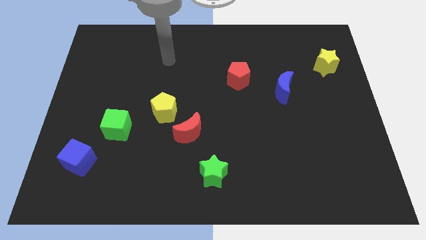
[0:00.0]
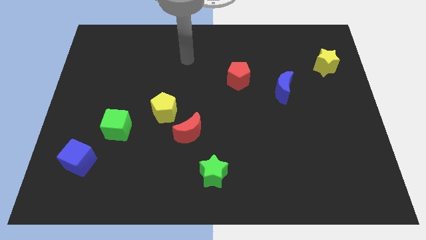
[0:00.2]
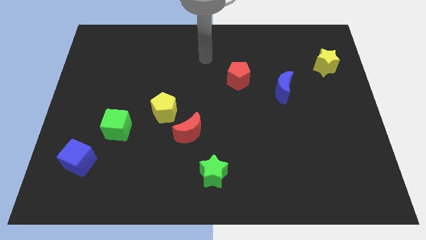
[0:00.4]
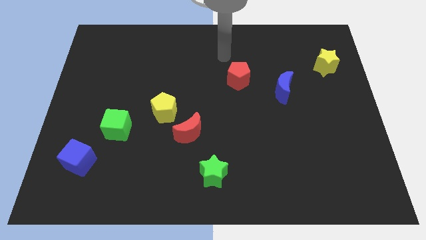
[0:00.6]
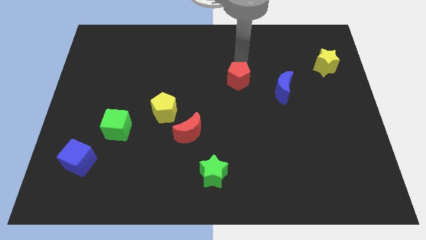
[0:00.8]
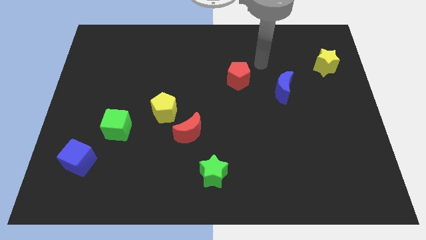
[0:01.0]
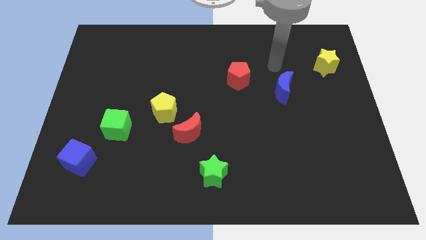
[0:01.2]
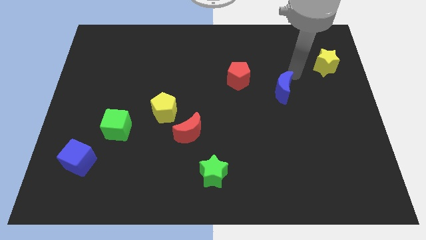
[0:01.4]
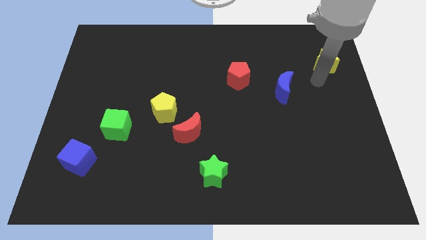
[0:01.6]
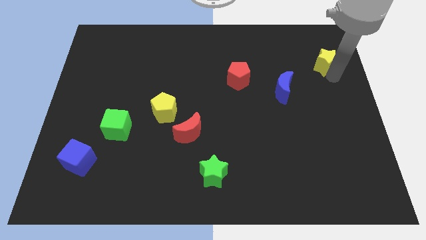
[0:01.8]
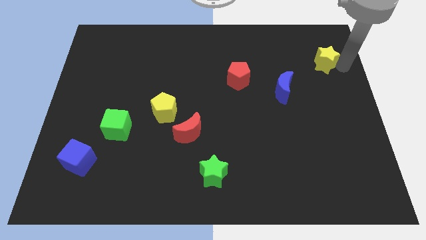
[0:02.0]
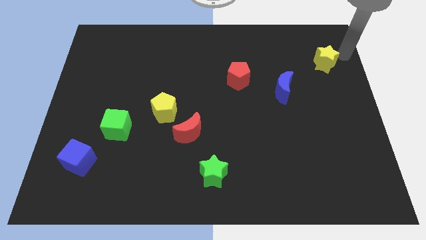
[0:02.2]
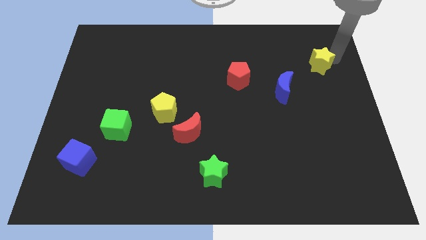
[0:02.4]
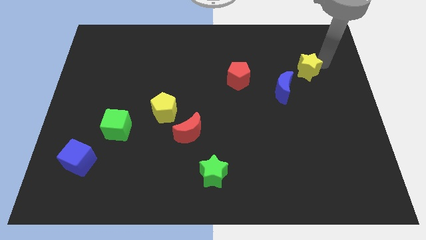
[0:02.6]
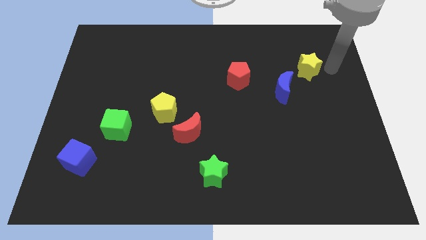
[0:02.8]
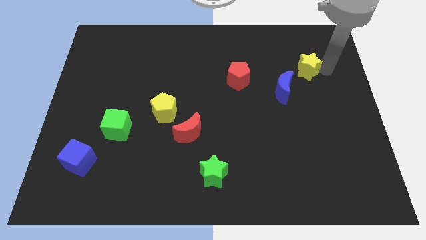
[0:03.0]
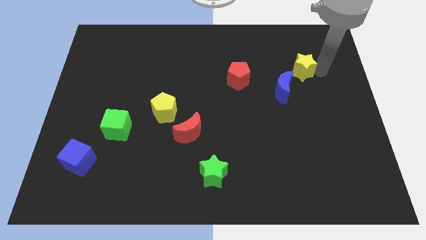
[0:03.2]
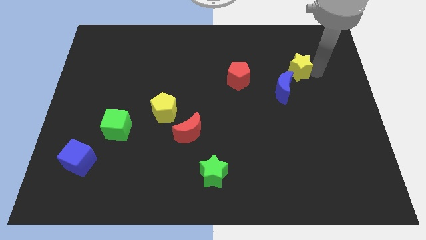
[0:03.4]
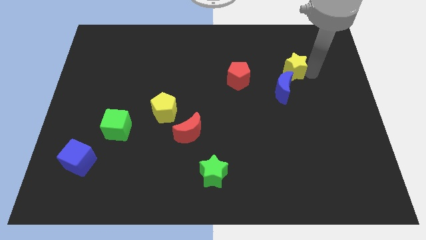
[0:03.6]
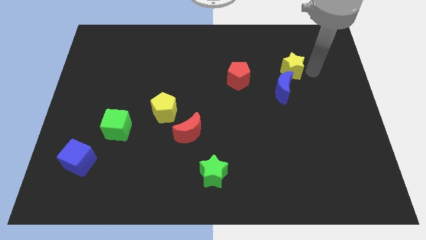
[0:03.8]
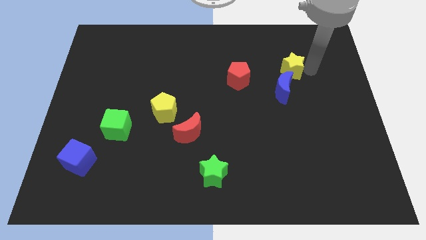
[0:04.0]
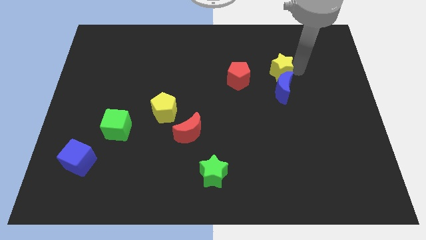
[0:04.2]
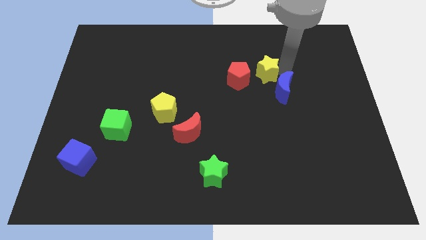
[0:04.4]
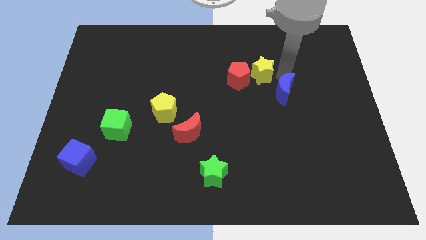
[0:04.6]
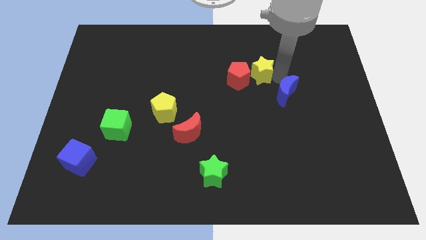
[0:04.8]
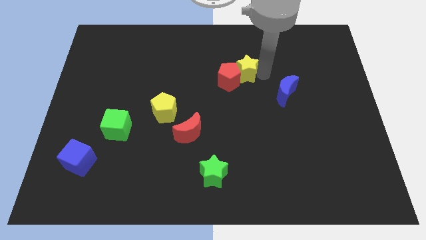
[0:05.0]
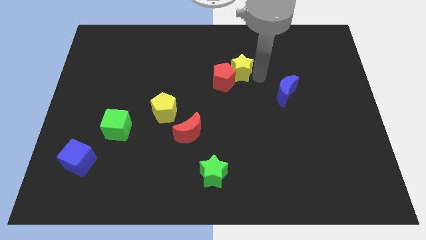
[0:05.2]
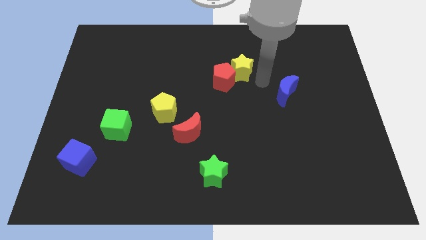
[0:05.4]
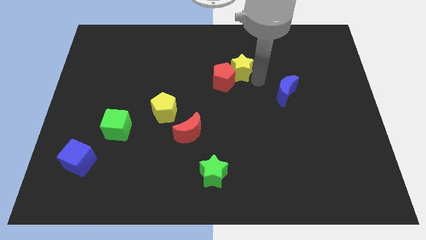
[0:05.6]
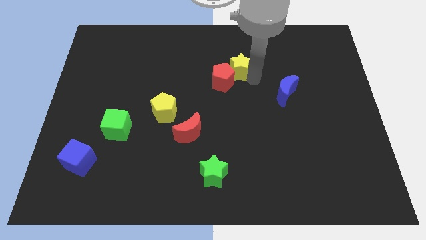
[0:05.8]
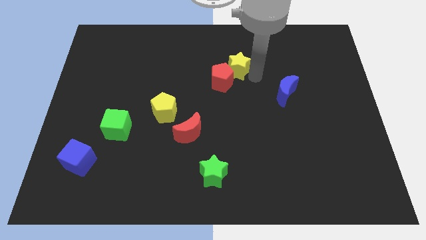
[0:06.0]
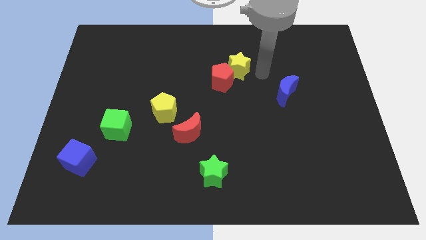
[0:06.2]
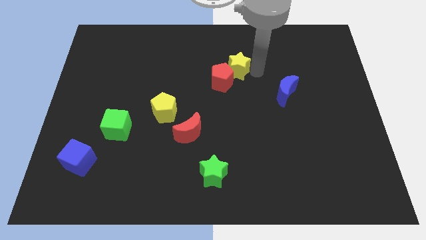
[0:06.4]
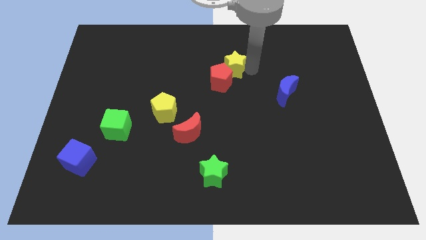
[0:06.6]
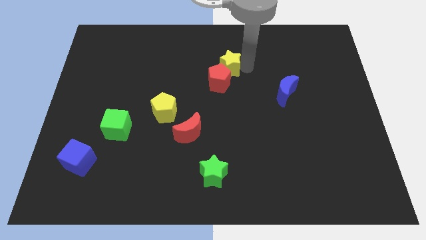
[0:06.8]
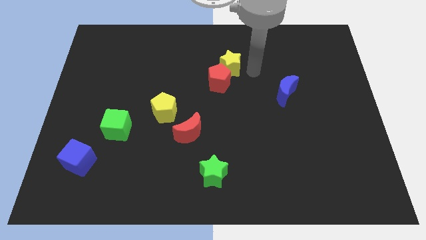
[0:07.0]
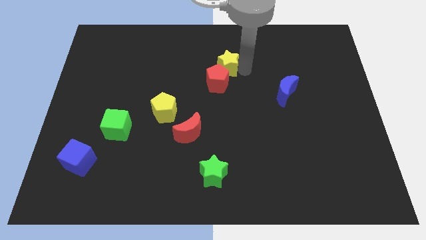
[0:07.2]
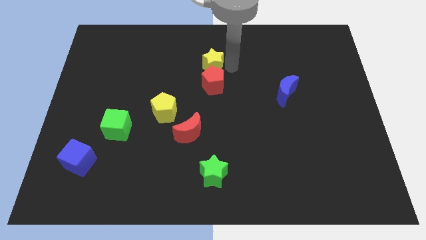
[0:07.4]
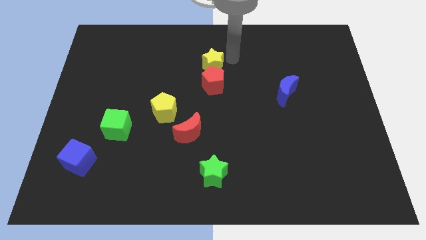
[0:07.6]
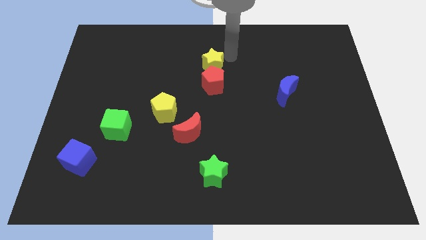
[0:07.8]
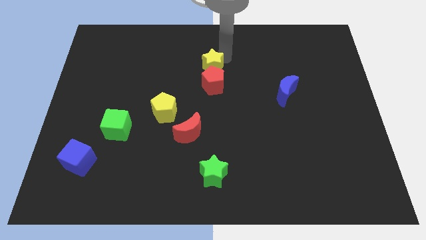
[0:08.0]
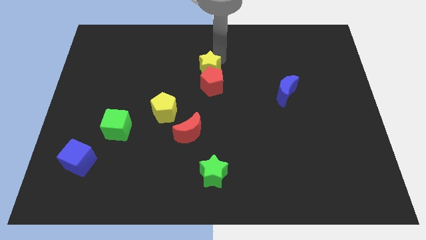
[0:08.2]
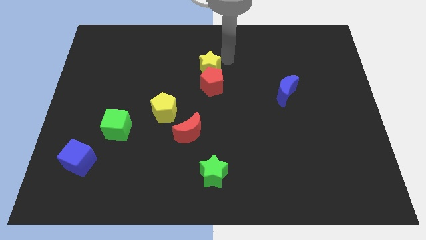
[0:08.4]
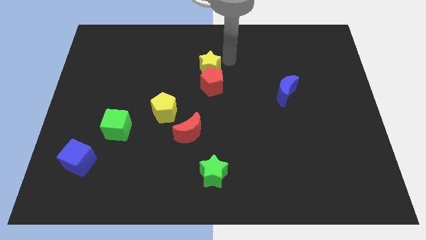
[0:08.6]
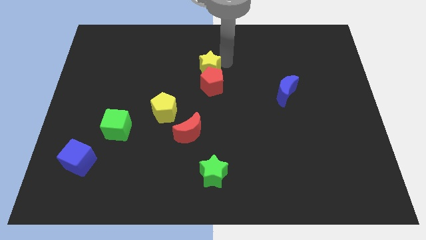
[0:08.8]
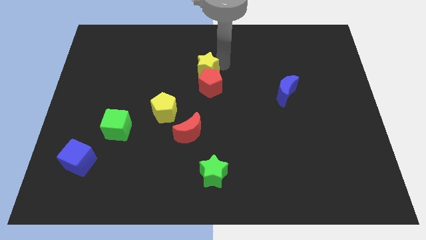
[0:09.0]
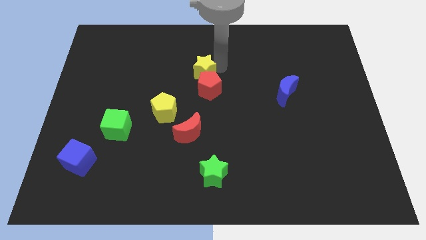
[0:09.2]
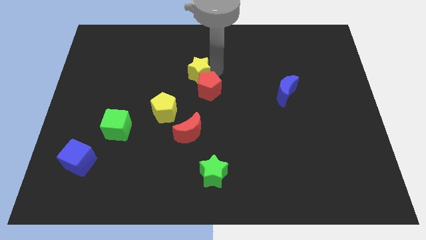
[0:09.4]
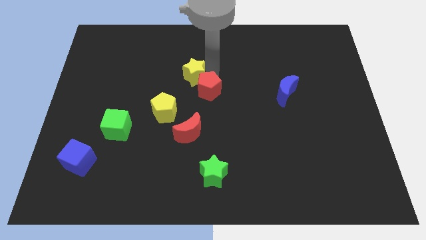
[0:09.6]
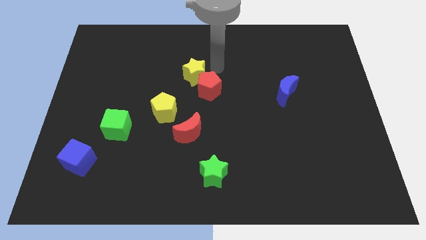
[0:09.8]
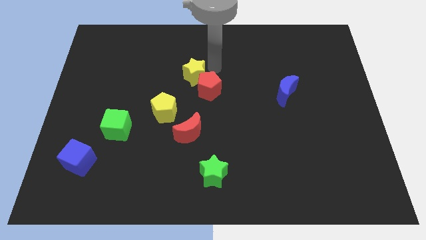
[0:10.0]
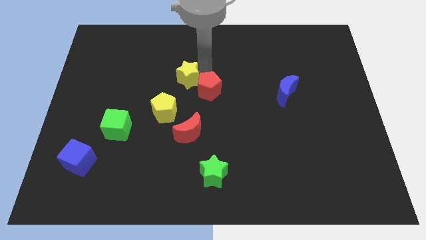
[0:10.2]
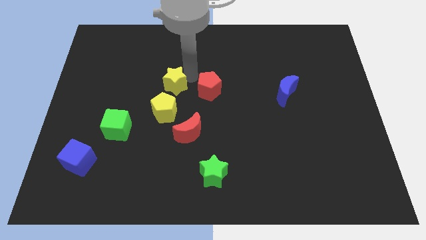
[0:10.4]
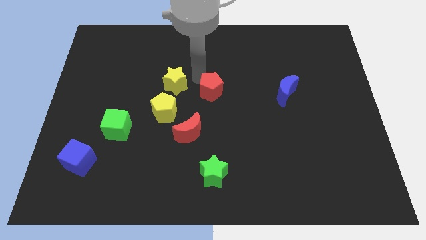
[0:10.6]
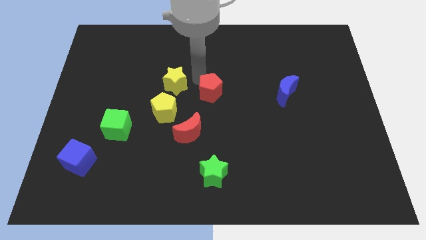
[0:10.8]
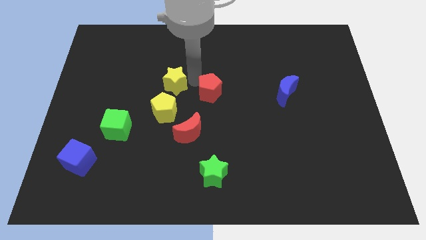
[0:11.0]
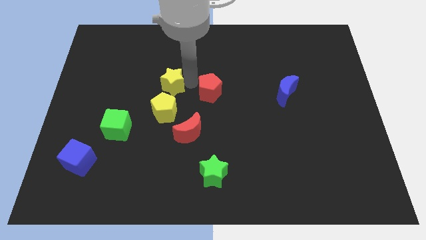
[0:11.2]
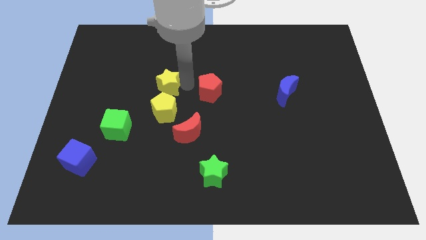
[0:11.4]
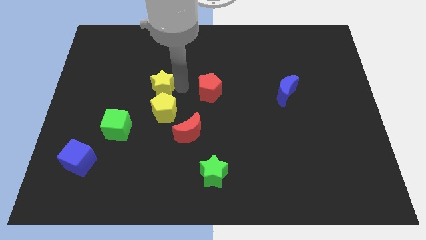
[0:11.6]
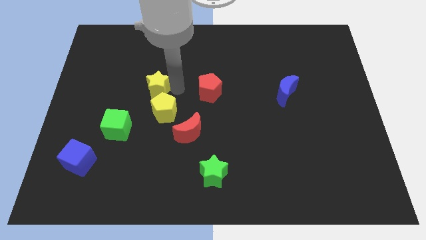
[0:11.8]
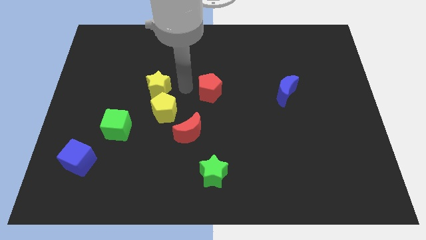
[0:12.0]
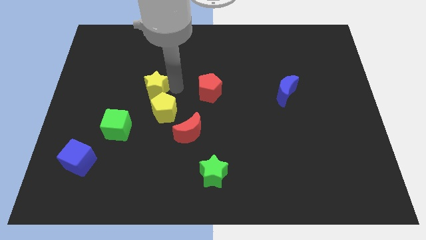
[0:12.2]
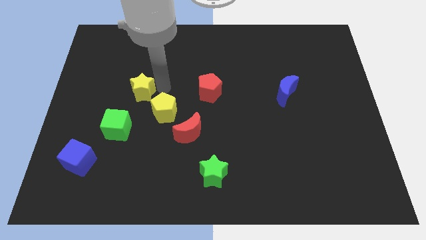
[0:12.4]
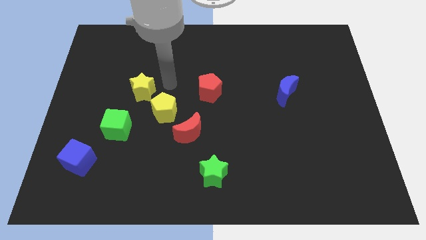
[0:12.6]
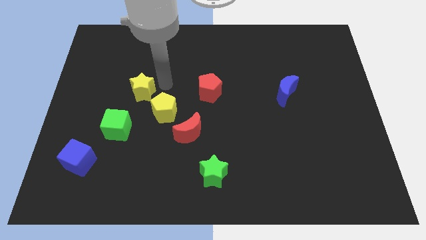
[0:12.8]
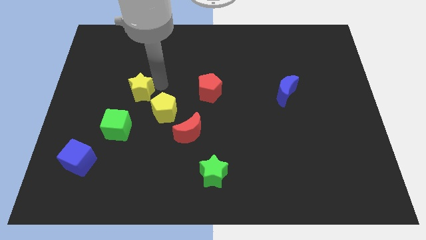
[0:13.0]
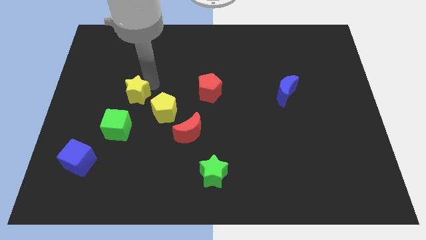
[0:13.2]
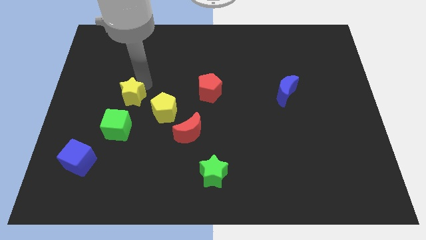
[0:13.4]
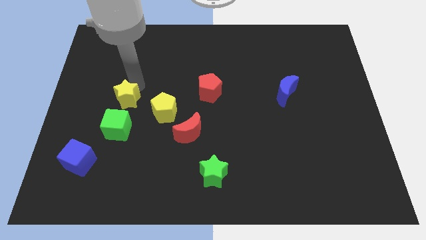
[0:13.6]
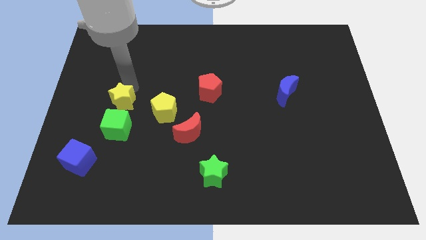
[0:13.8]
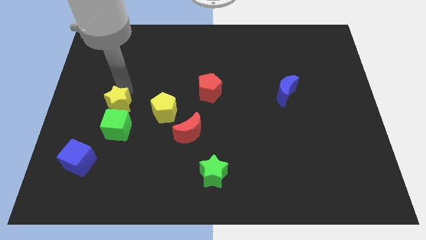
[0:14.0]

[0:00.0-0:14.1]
put the yellow star to the top left of the green cube
